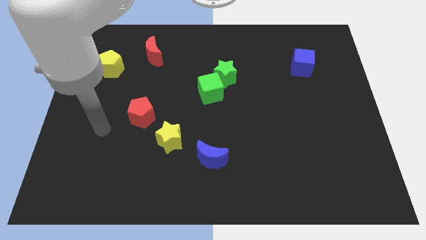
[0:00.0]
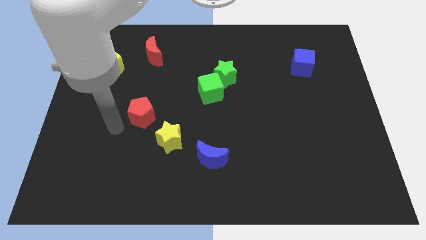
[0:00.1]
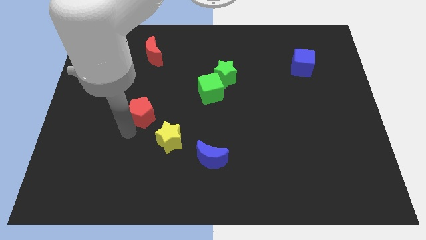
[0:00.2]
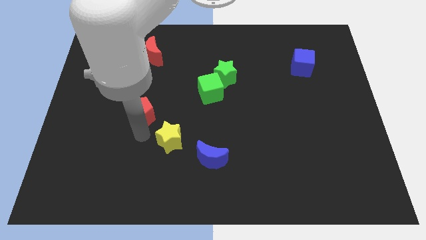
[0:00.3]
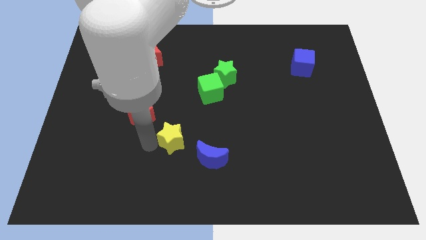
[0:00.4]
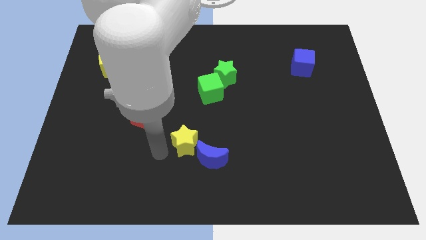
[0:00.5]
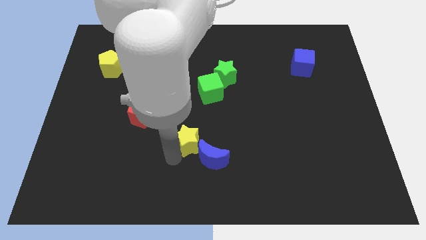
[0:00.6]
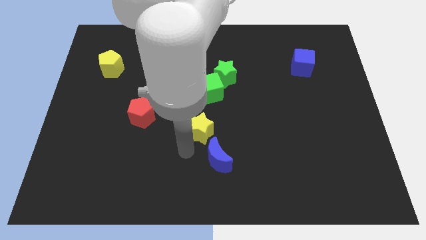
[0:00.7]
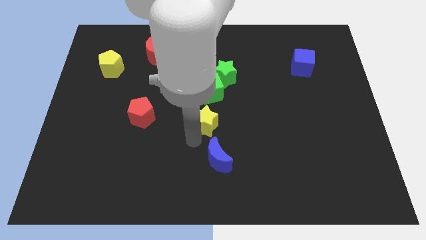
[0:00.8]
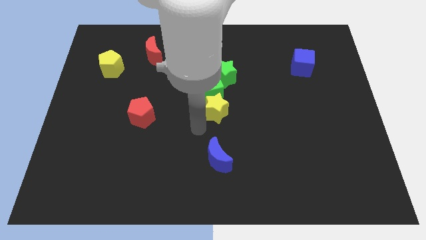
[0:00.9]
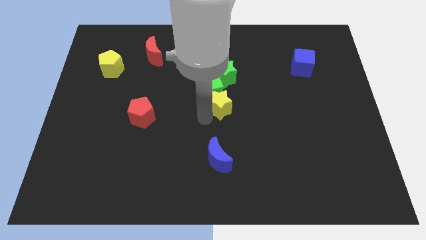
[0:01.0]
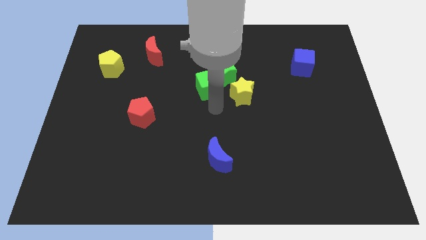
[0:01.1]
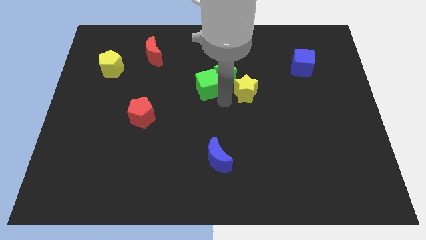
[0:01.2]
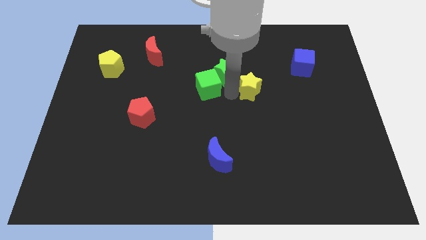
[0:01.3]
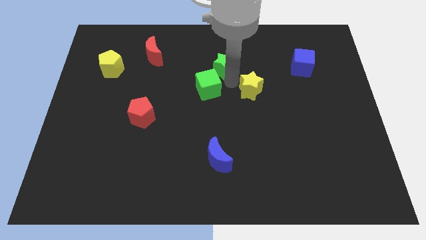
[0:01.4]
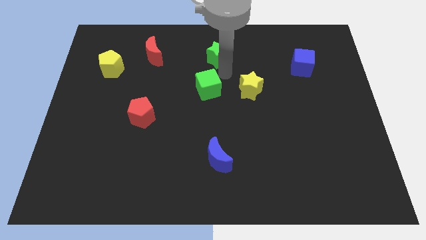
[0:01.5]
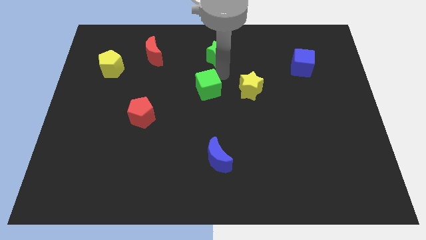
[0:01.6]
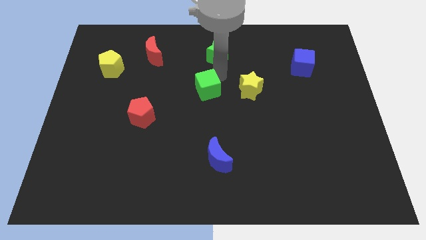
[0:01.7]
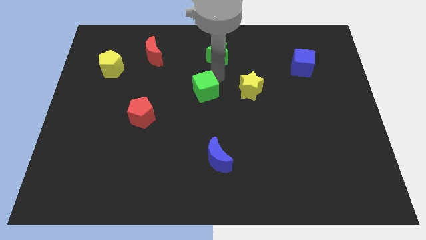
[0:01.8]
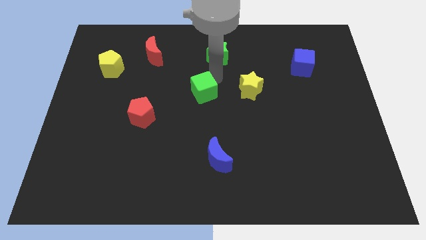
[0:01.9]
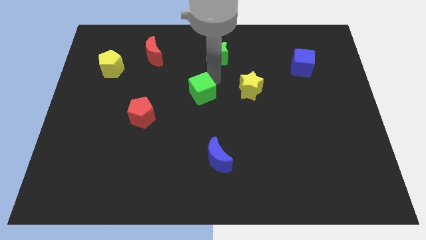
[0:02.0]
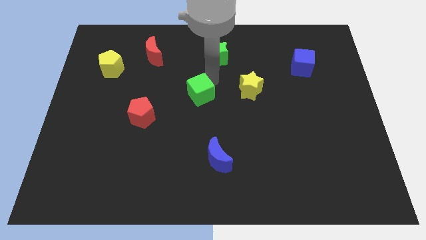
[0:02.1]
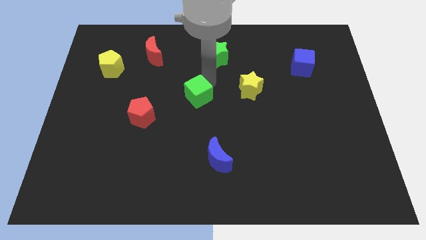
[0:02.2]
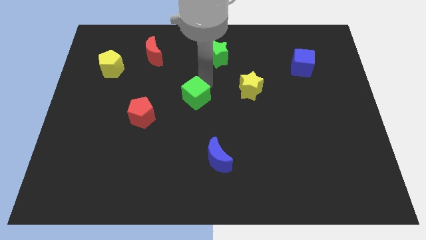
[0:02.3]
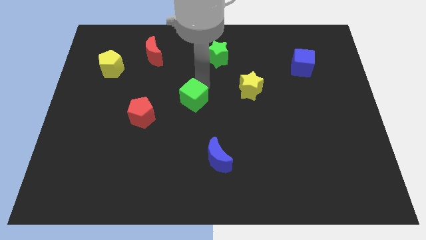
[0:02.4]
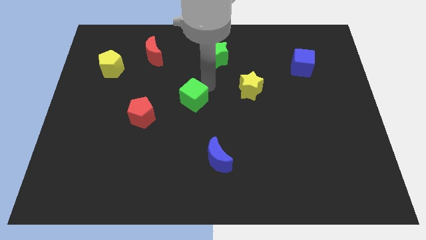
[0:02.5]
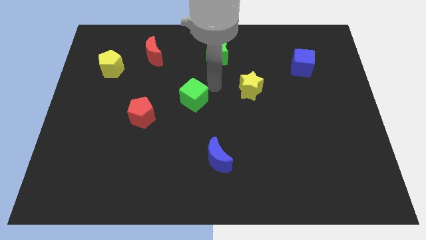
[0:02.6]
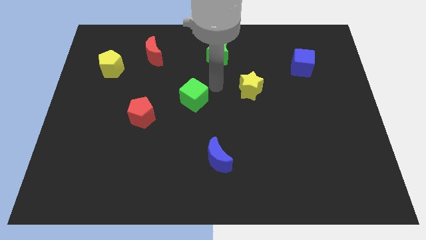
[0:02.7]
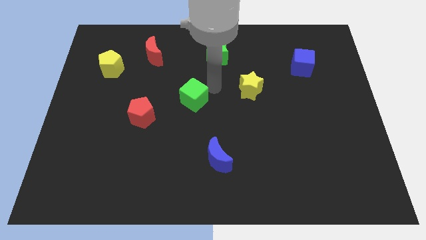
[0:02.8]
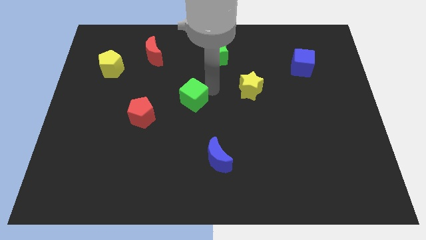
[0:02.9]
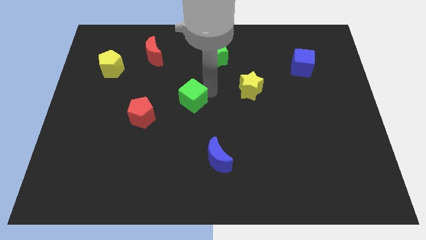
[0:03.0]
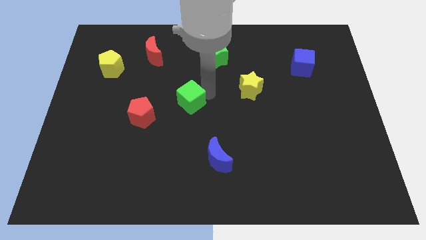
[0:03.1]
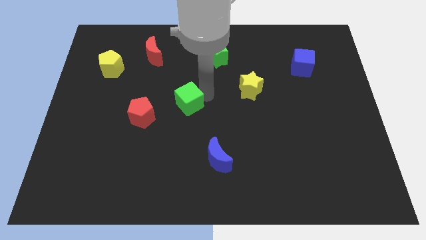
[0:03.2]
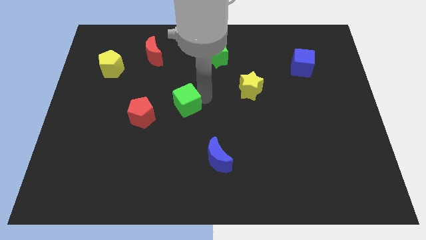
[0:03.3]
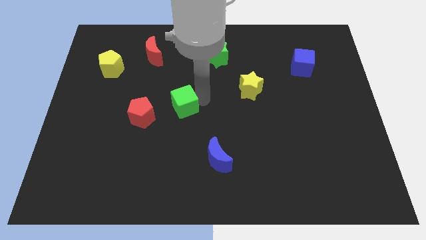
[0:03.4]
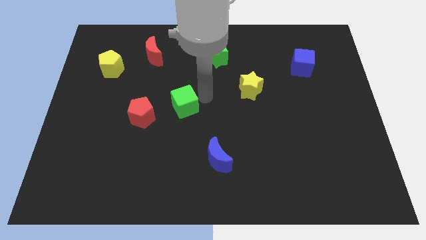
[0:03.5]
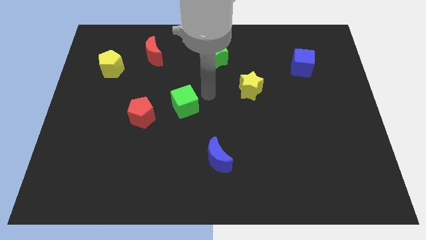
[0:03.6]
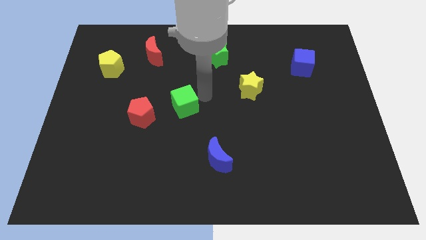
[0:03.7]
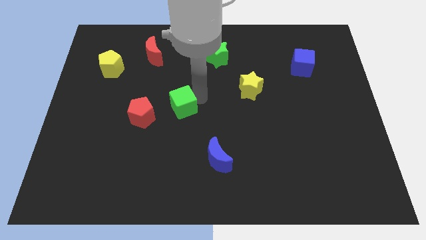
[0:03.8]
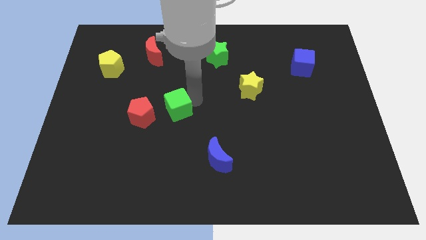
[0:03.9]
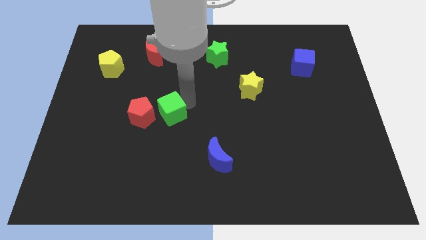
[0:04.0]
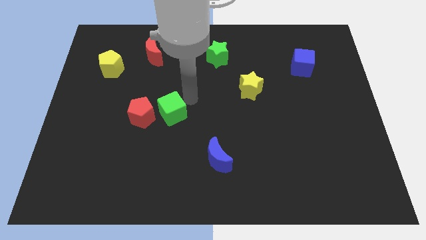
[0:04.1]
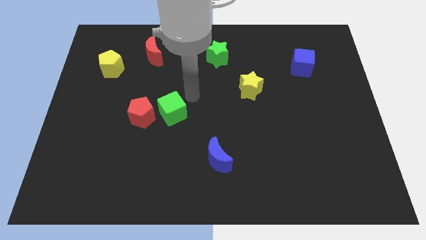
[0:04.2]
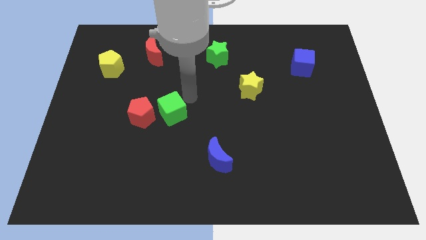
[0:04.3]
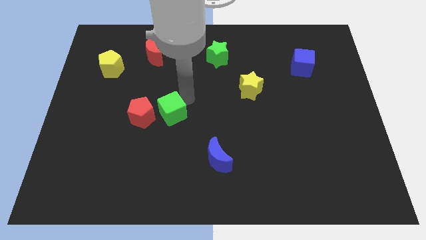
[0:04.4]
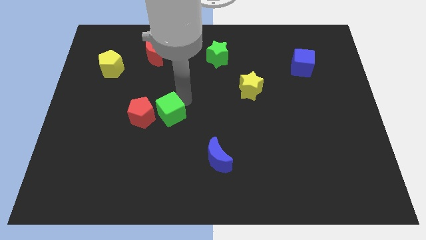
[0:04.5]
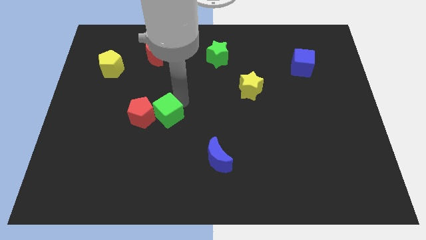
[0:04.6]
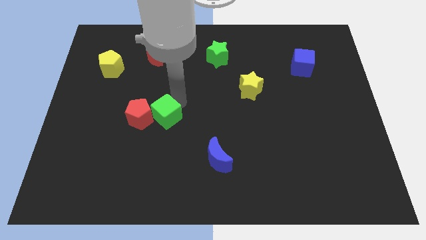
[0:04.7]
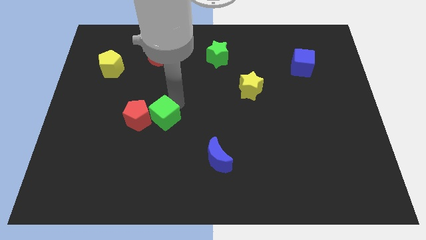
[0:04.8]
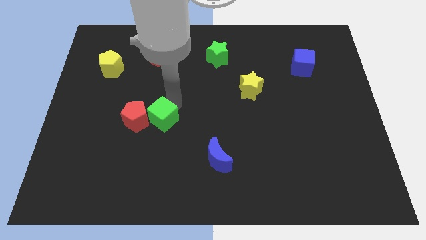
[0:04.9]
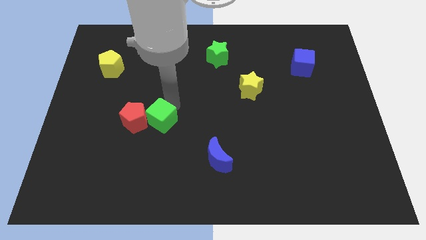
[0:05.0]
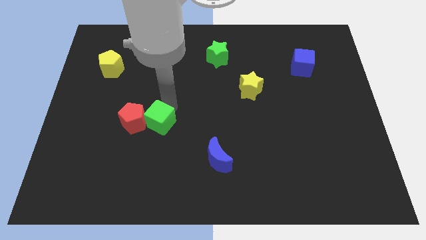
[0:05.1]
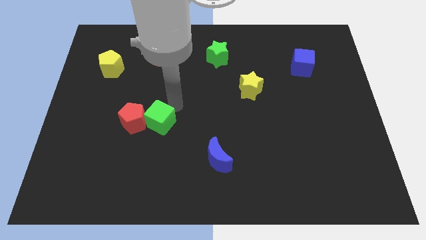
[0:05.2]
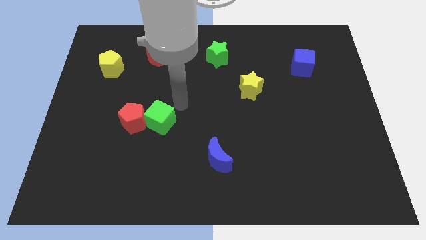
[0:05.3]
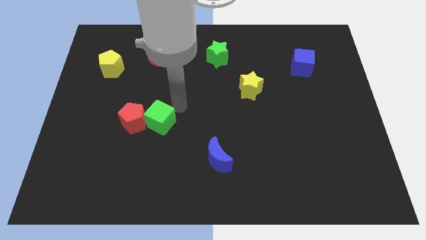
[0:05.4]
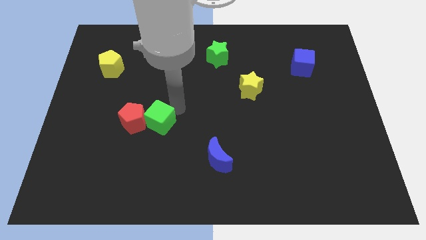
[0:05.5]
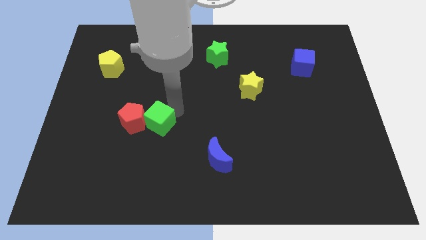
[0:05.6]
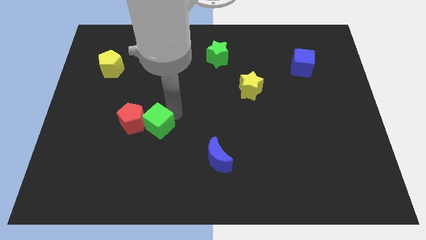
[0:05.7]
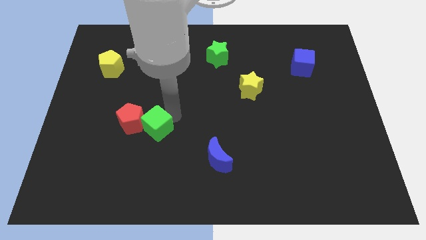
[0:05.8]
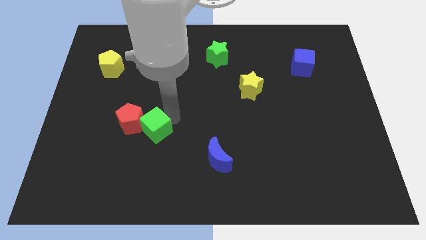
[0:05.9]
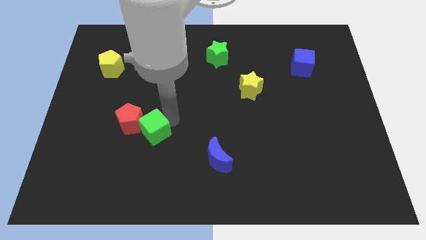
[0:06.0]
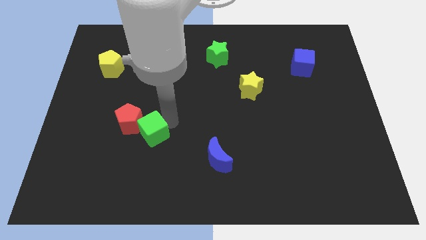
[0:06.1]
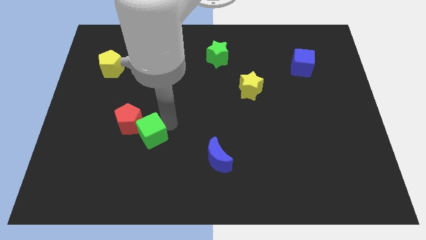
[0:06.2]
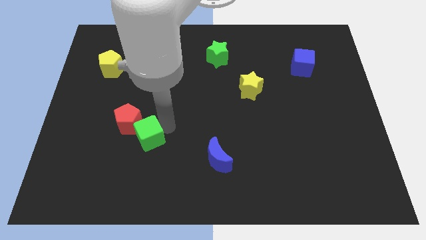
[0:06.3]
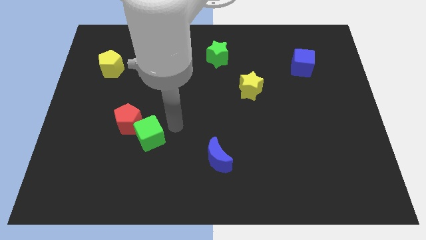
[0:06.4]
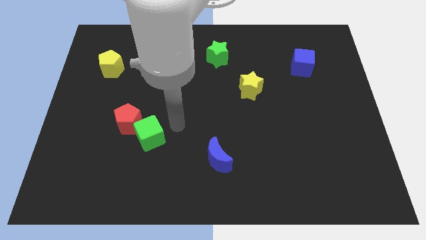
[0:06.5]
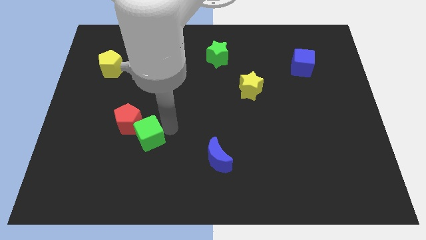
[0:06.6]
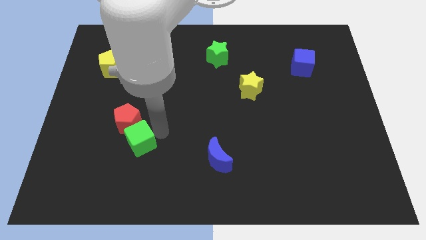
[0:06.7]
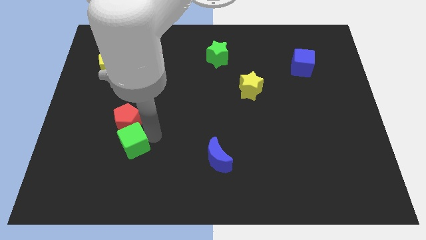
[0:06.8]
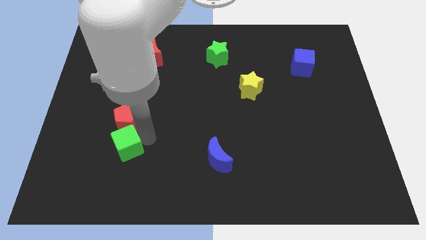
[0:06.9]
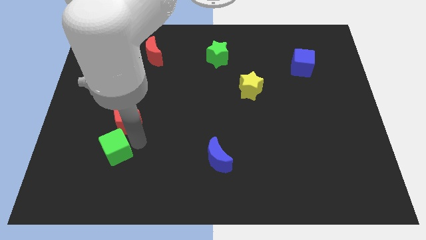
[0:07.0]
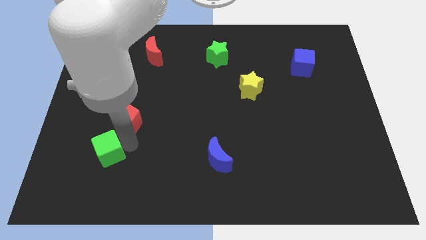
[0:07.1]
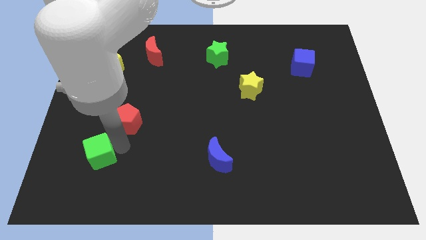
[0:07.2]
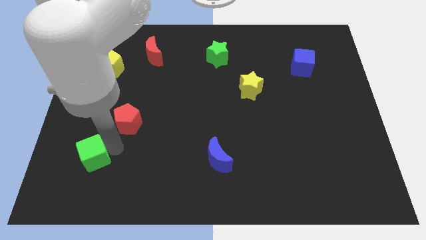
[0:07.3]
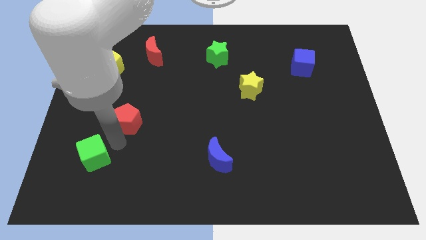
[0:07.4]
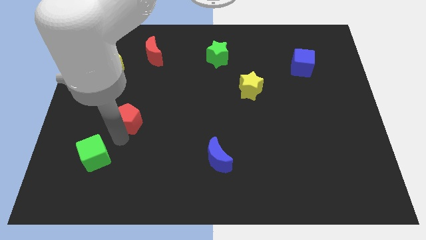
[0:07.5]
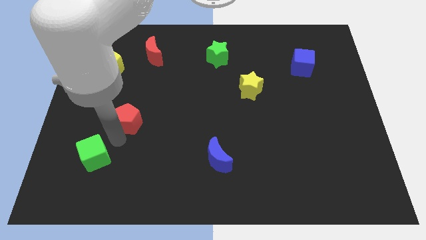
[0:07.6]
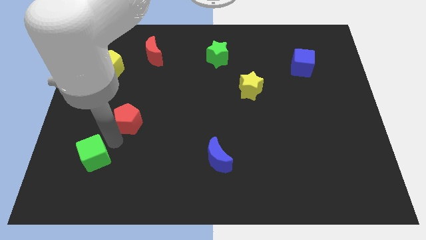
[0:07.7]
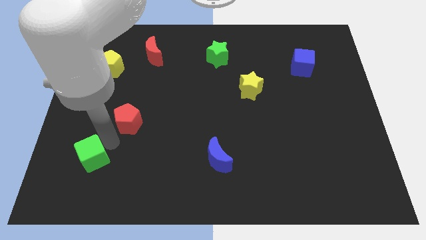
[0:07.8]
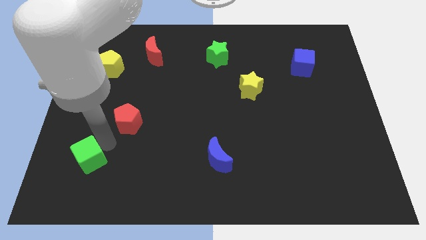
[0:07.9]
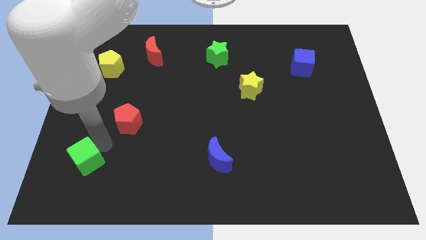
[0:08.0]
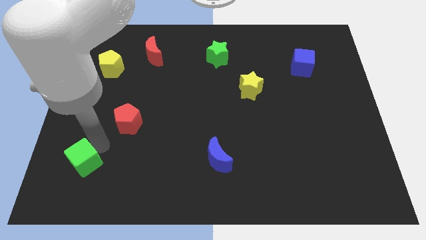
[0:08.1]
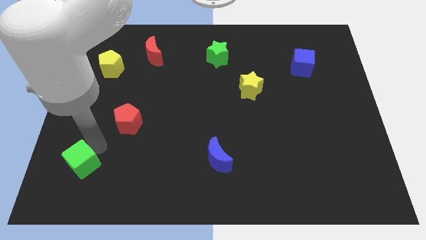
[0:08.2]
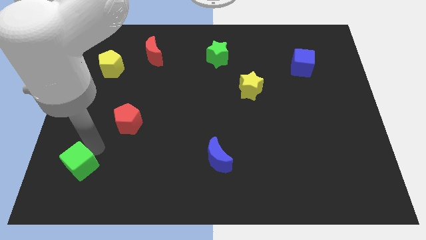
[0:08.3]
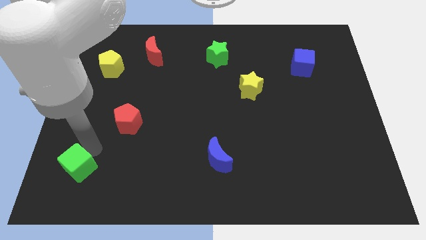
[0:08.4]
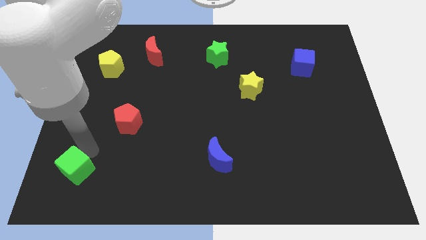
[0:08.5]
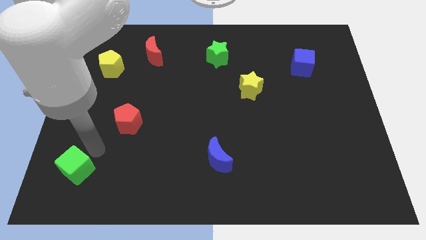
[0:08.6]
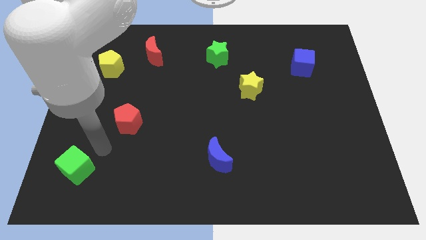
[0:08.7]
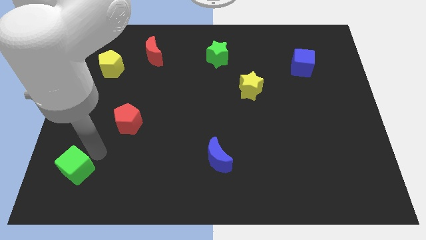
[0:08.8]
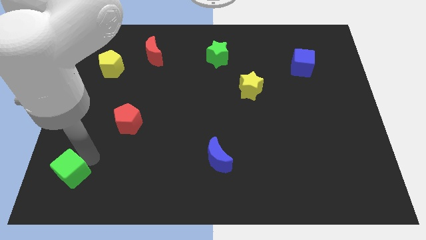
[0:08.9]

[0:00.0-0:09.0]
move the green cube to the bottom left corner
